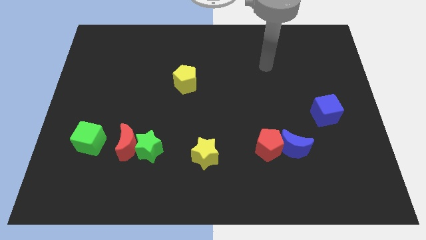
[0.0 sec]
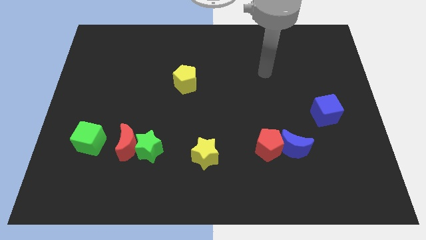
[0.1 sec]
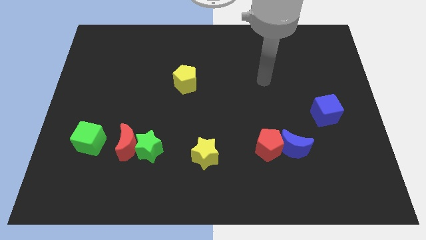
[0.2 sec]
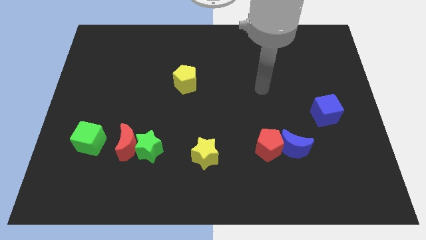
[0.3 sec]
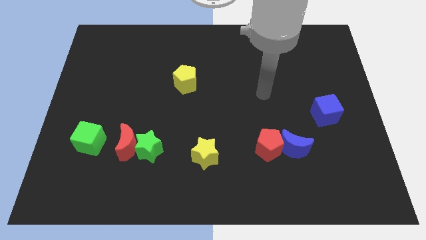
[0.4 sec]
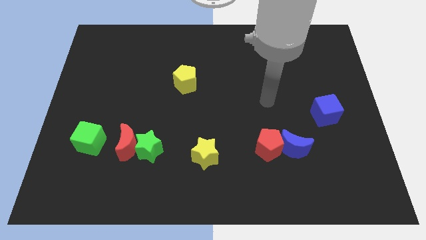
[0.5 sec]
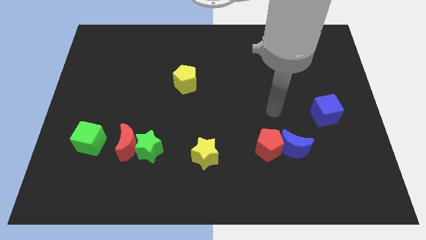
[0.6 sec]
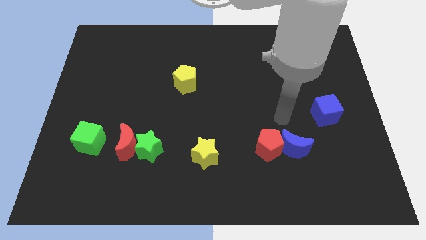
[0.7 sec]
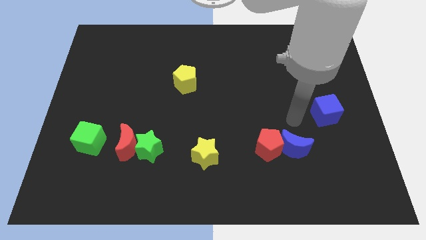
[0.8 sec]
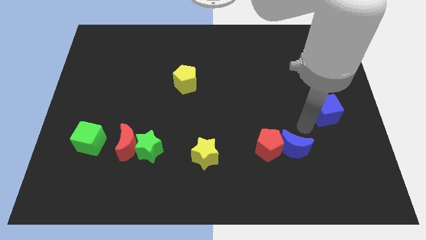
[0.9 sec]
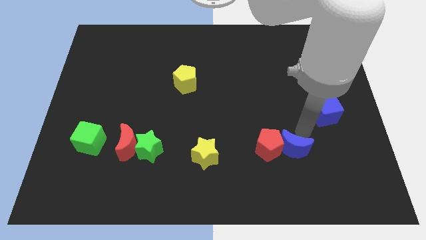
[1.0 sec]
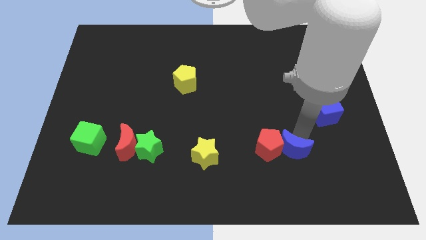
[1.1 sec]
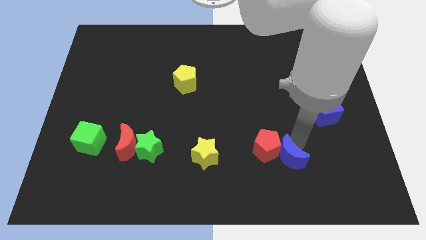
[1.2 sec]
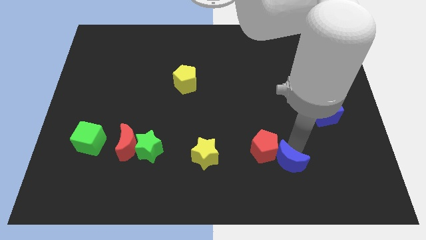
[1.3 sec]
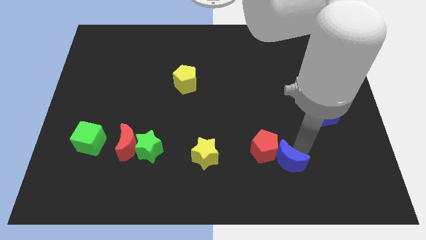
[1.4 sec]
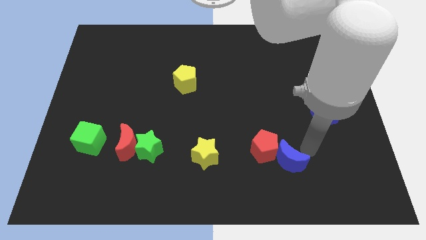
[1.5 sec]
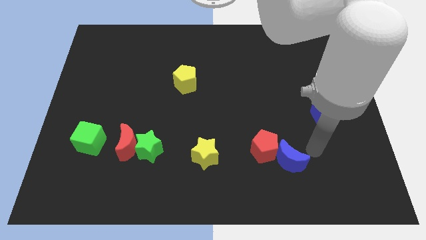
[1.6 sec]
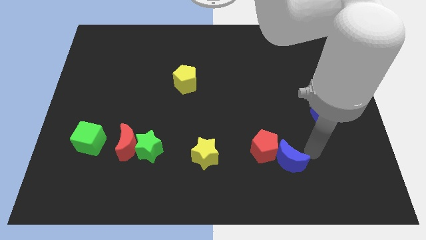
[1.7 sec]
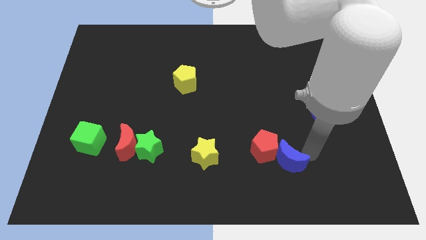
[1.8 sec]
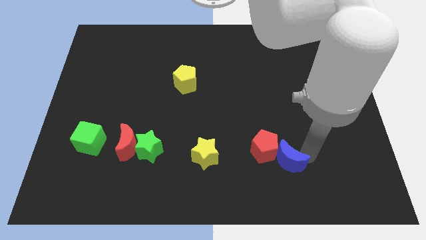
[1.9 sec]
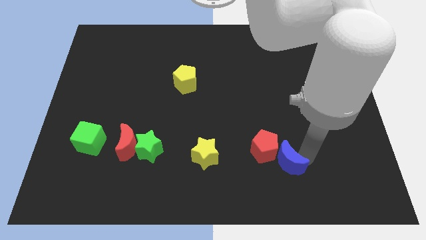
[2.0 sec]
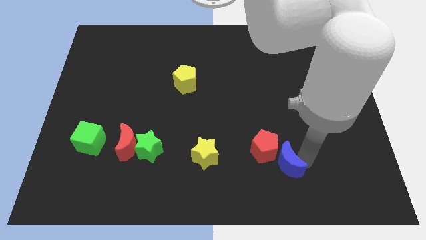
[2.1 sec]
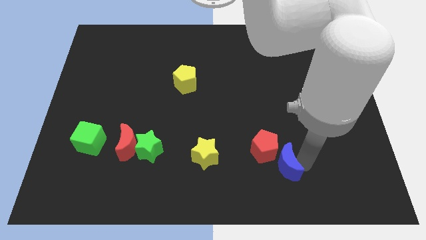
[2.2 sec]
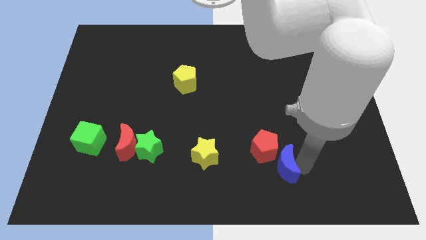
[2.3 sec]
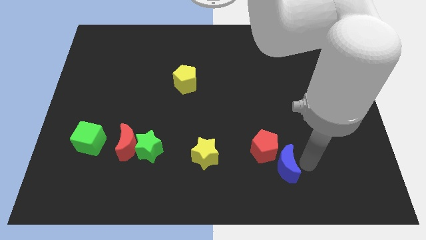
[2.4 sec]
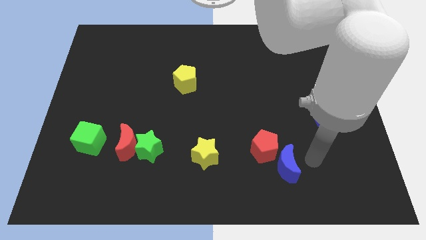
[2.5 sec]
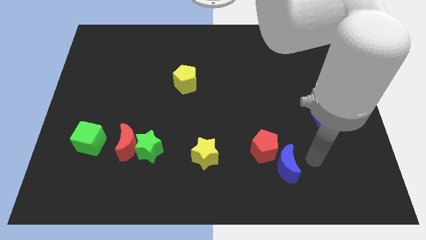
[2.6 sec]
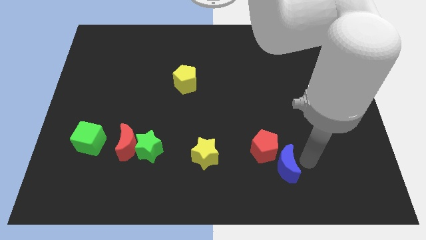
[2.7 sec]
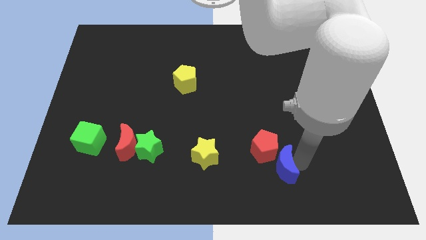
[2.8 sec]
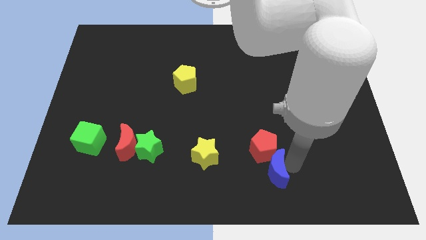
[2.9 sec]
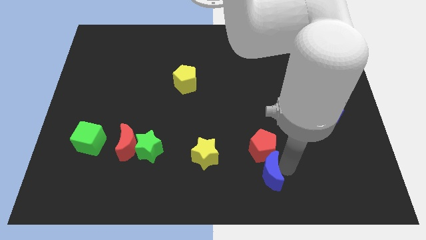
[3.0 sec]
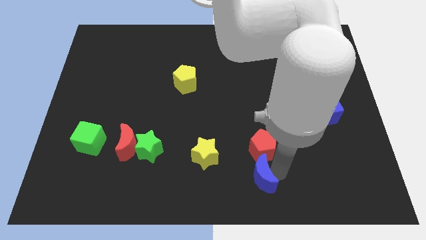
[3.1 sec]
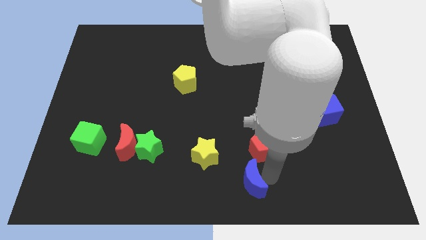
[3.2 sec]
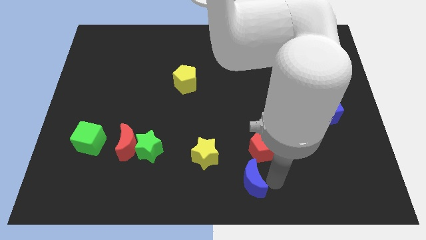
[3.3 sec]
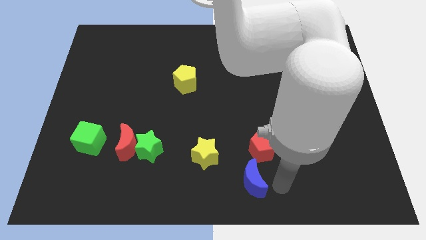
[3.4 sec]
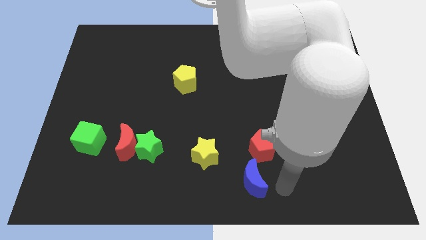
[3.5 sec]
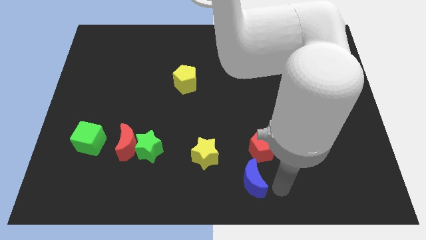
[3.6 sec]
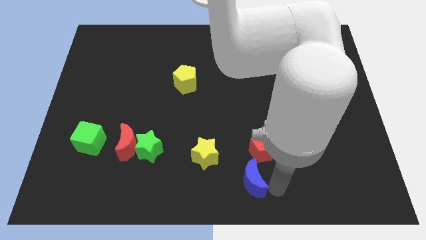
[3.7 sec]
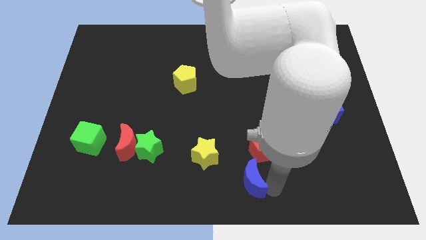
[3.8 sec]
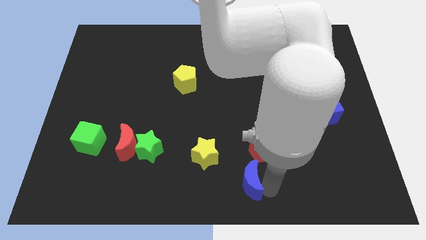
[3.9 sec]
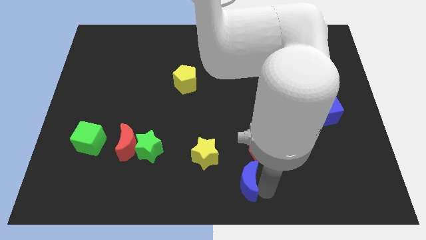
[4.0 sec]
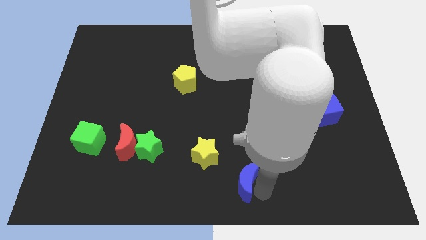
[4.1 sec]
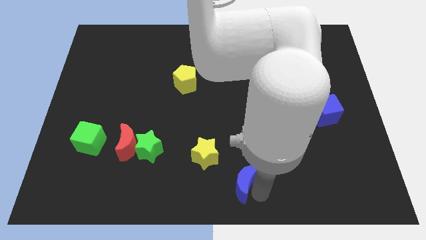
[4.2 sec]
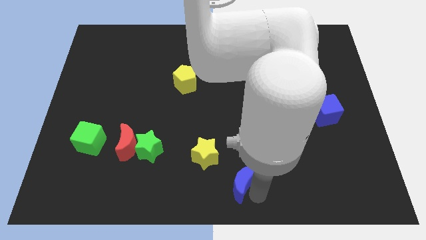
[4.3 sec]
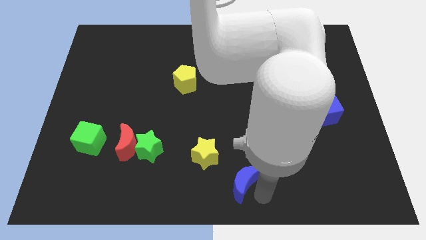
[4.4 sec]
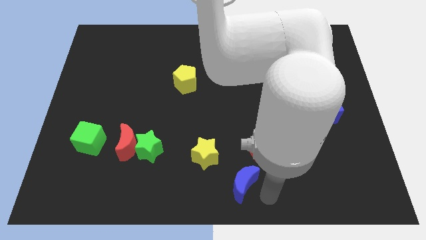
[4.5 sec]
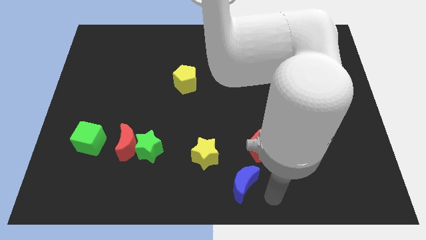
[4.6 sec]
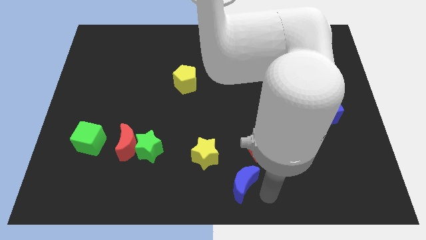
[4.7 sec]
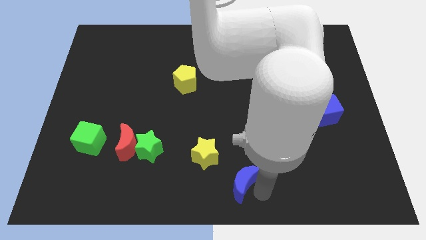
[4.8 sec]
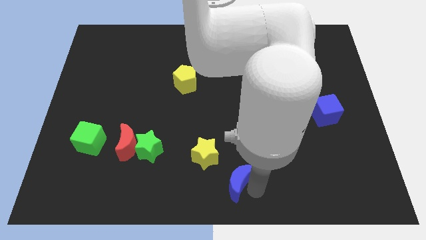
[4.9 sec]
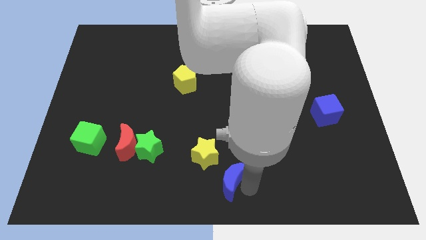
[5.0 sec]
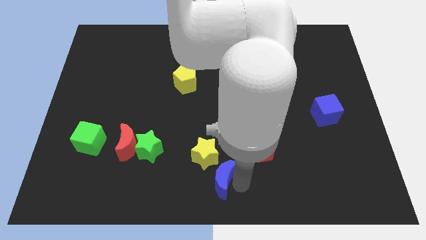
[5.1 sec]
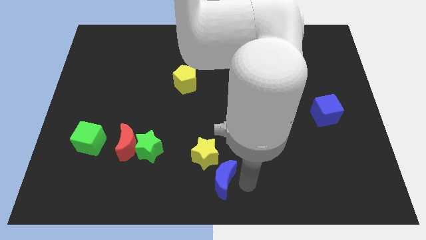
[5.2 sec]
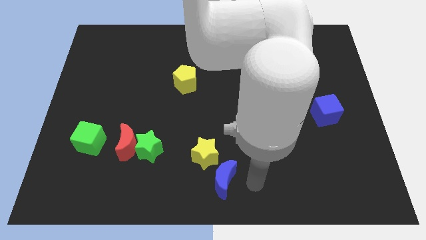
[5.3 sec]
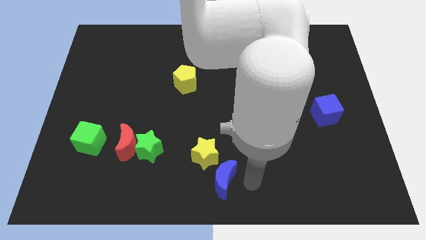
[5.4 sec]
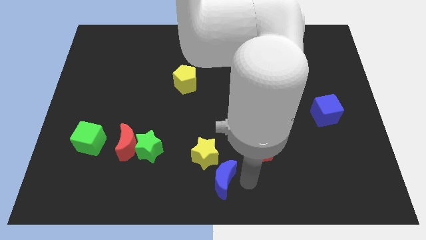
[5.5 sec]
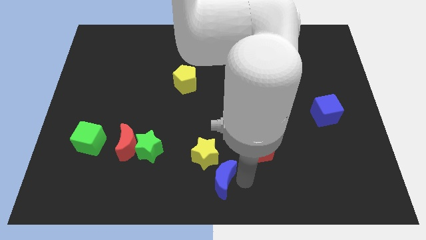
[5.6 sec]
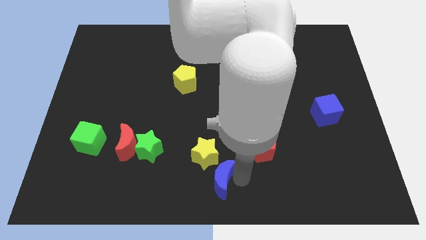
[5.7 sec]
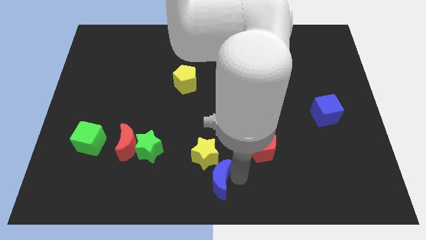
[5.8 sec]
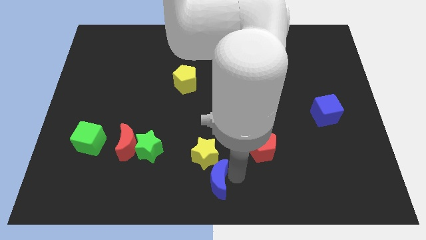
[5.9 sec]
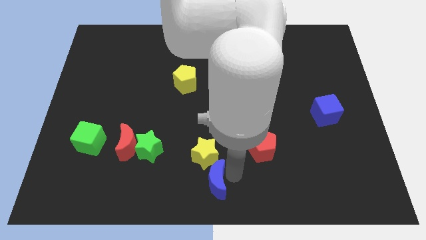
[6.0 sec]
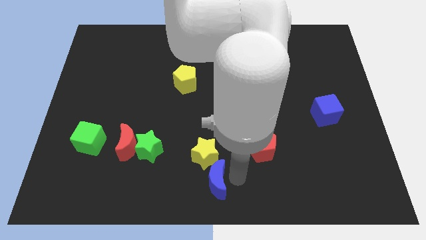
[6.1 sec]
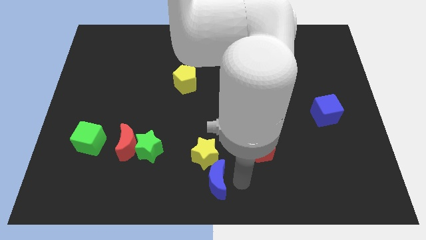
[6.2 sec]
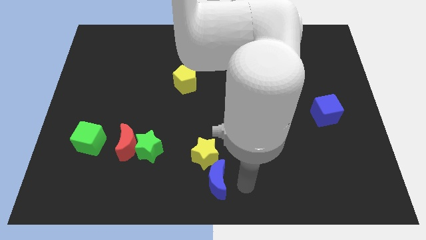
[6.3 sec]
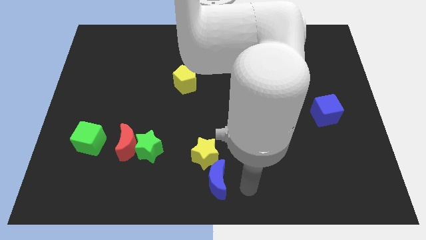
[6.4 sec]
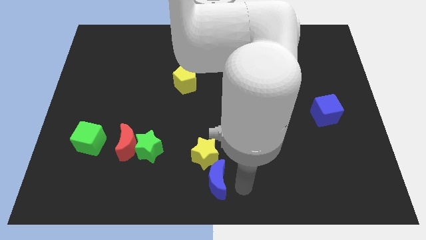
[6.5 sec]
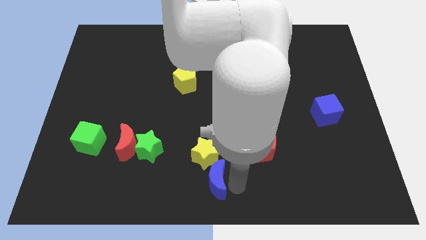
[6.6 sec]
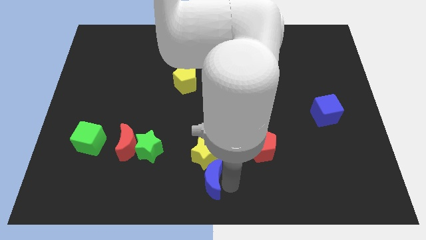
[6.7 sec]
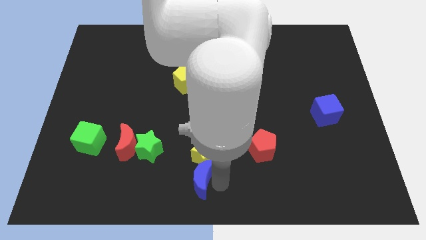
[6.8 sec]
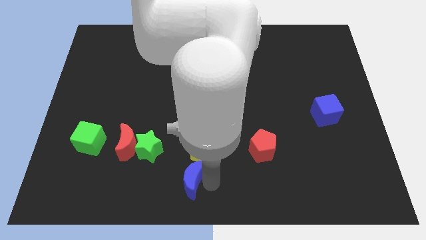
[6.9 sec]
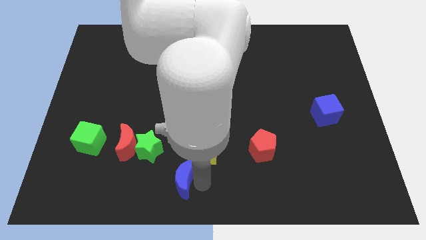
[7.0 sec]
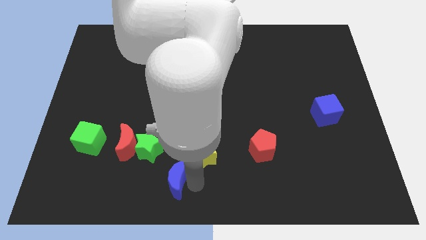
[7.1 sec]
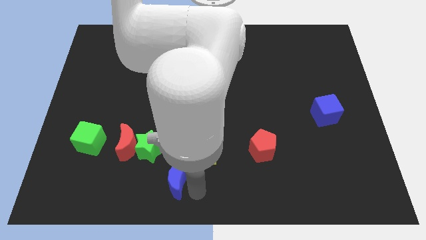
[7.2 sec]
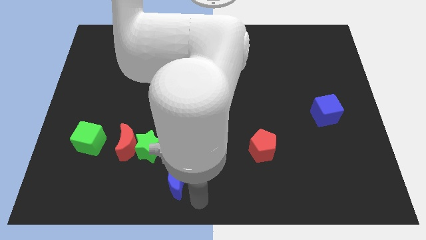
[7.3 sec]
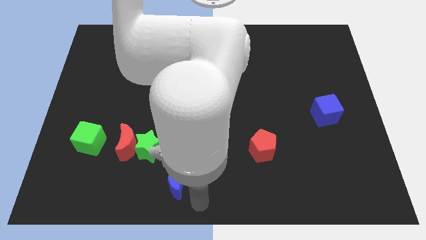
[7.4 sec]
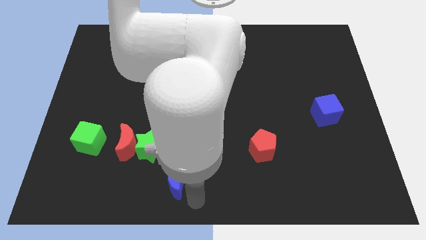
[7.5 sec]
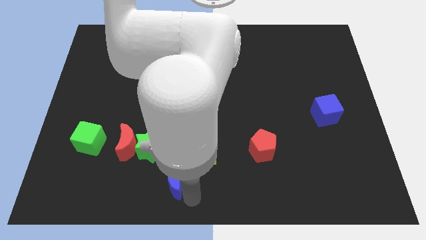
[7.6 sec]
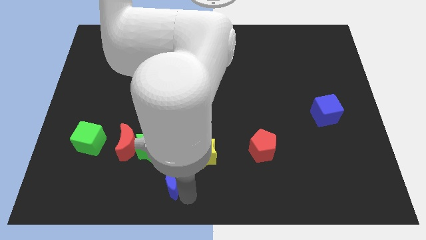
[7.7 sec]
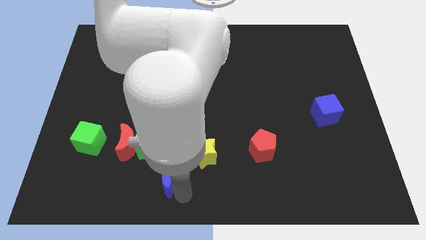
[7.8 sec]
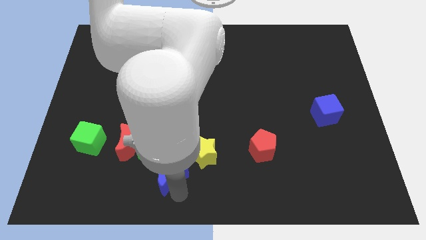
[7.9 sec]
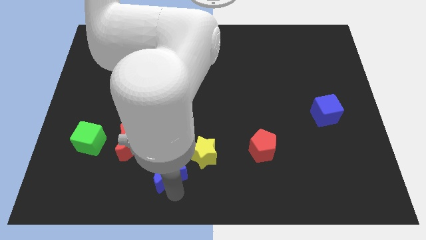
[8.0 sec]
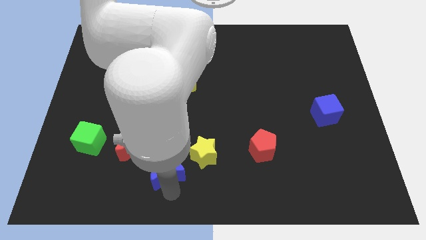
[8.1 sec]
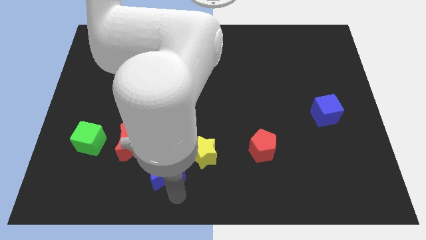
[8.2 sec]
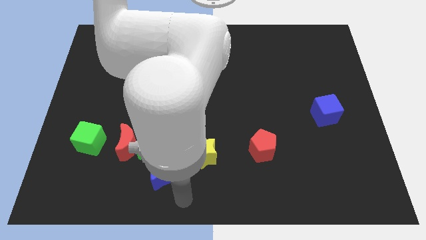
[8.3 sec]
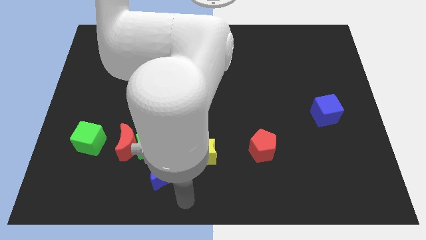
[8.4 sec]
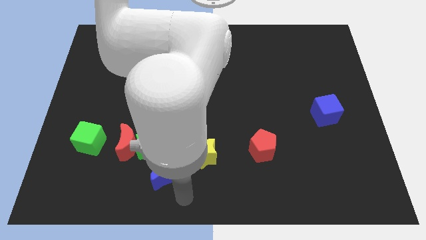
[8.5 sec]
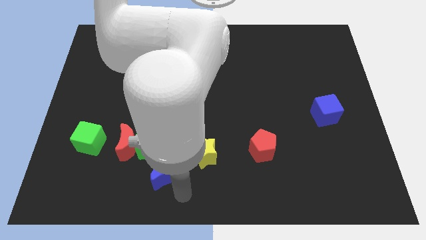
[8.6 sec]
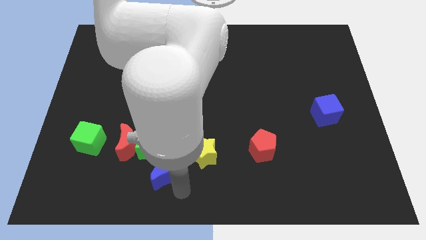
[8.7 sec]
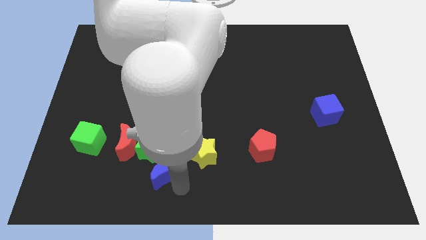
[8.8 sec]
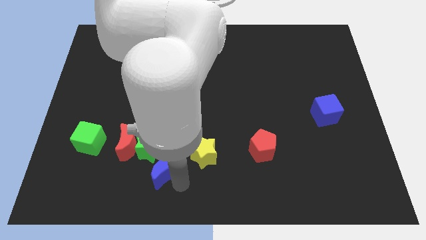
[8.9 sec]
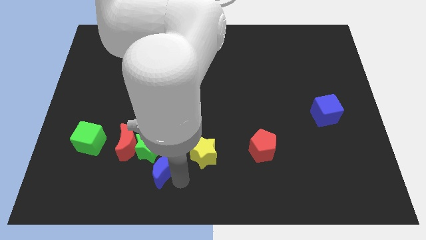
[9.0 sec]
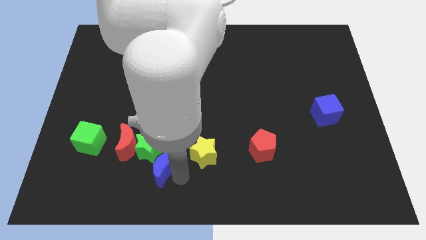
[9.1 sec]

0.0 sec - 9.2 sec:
slide the blue moon to the green star
